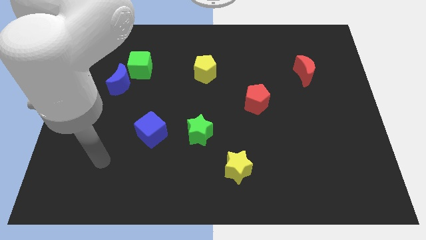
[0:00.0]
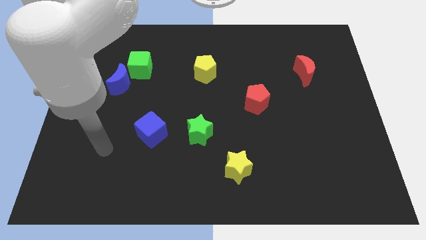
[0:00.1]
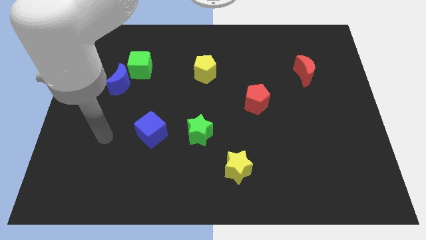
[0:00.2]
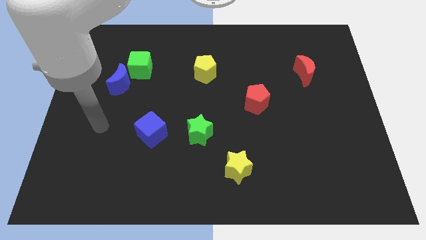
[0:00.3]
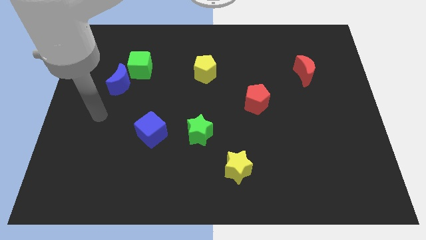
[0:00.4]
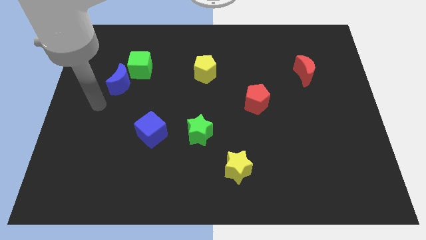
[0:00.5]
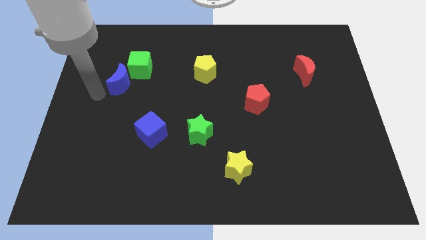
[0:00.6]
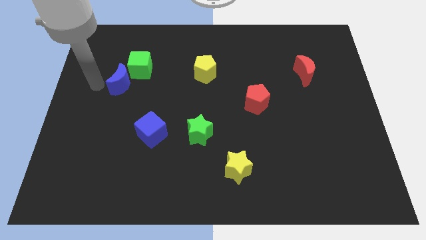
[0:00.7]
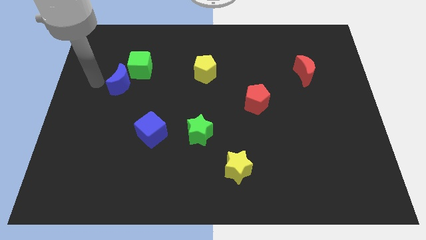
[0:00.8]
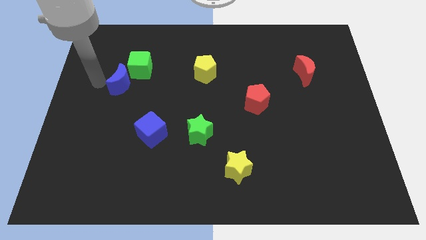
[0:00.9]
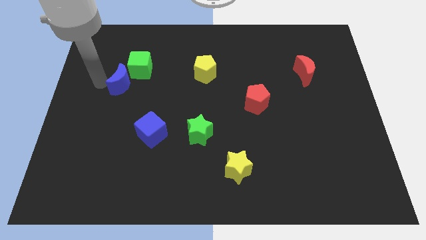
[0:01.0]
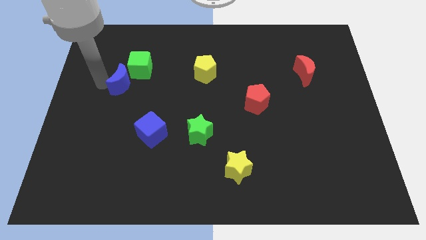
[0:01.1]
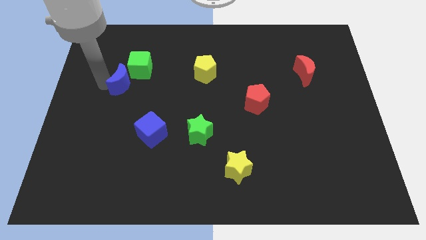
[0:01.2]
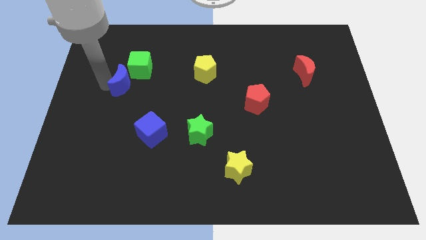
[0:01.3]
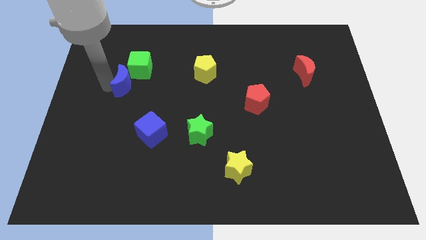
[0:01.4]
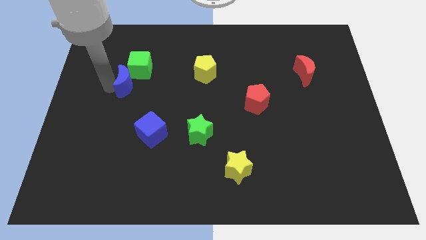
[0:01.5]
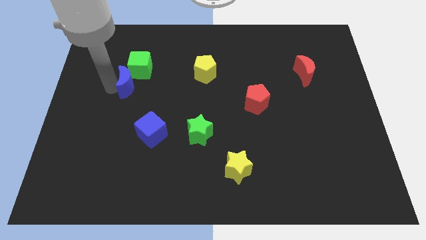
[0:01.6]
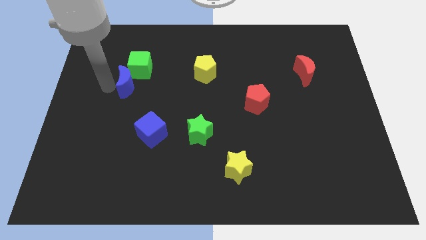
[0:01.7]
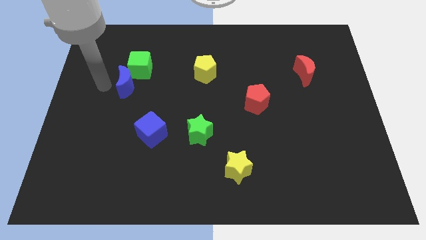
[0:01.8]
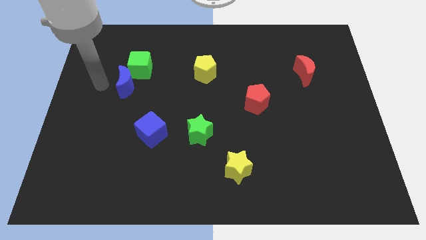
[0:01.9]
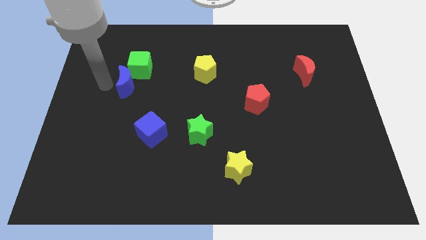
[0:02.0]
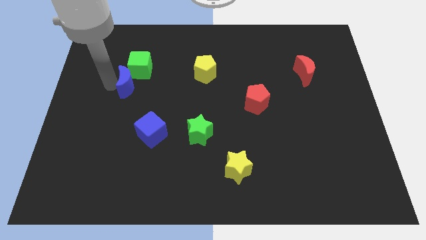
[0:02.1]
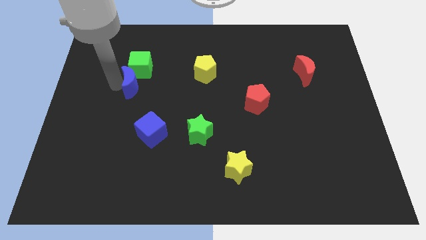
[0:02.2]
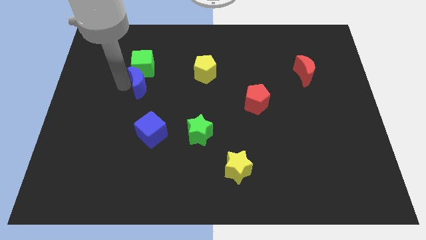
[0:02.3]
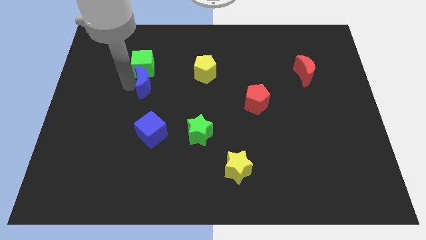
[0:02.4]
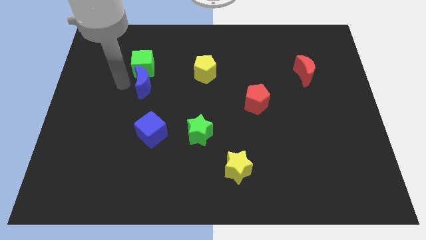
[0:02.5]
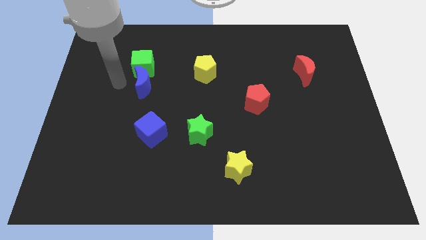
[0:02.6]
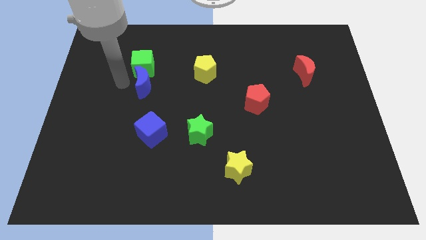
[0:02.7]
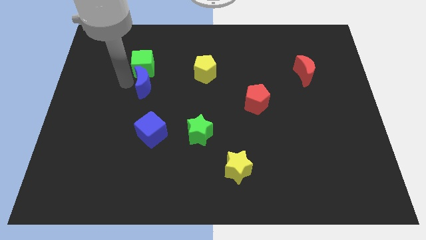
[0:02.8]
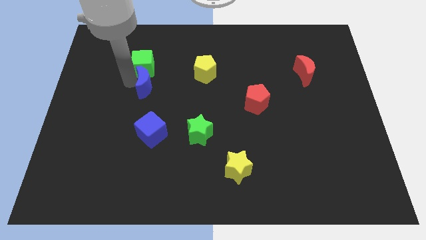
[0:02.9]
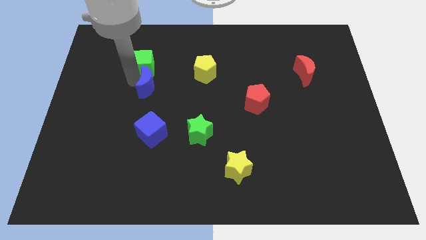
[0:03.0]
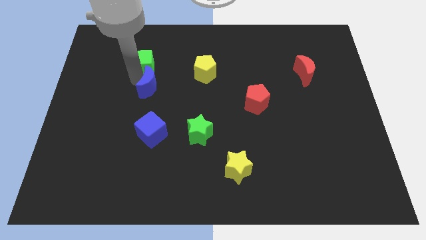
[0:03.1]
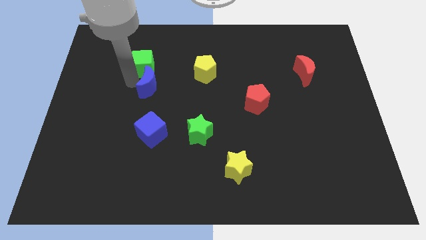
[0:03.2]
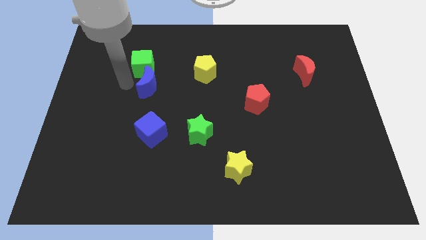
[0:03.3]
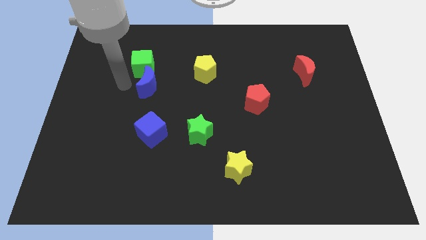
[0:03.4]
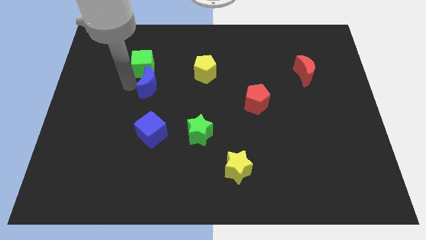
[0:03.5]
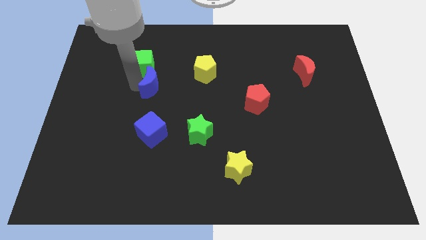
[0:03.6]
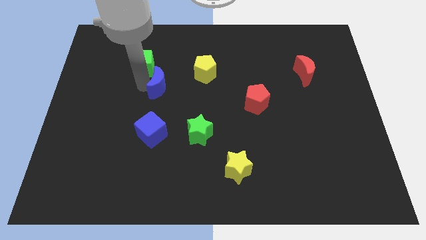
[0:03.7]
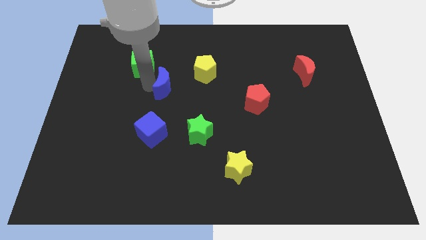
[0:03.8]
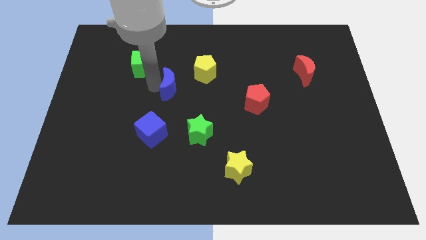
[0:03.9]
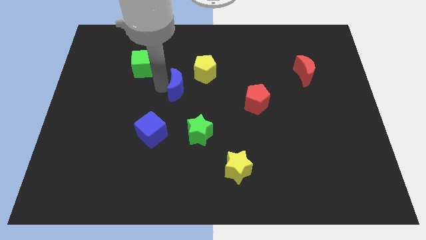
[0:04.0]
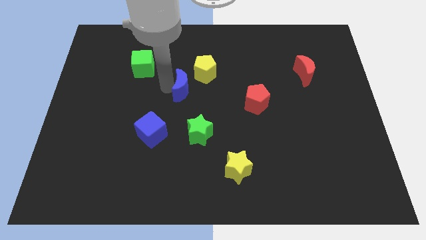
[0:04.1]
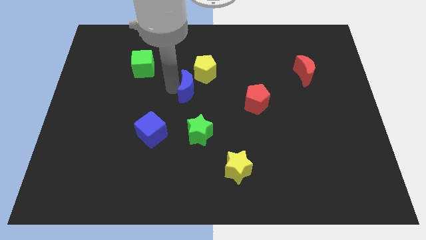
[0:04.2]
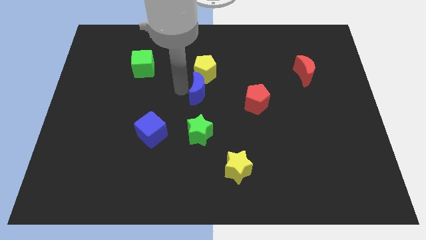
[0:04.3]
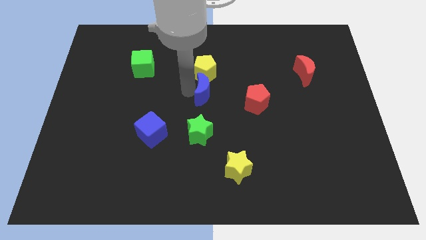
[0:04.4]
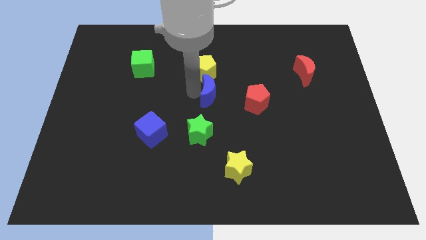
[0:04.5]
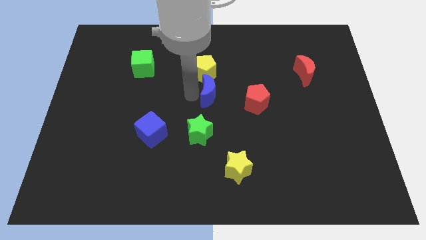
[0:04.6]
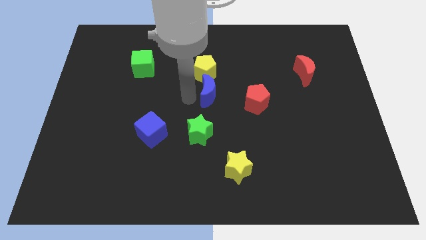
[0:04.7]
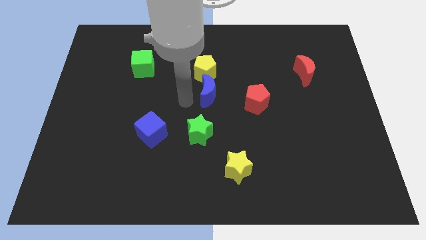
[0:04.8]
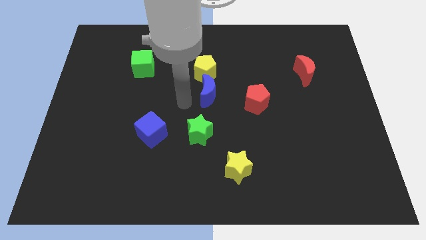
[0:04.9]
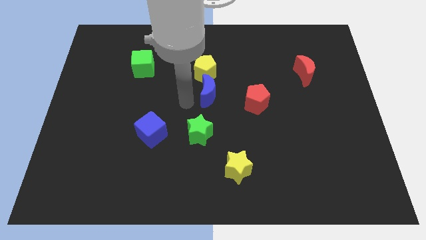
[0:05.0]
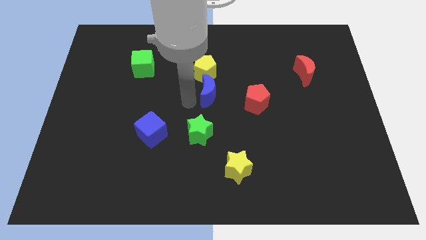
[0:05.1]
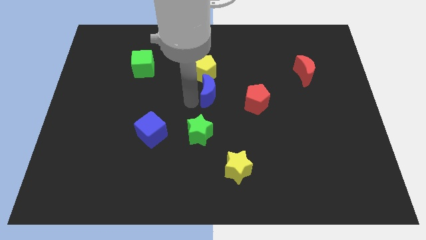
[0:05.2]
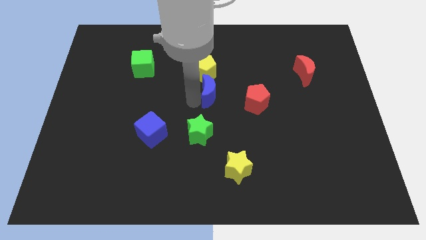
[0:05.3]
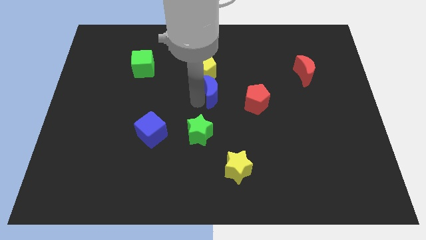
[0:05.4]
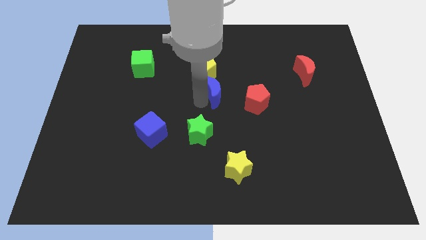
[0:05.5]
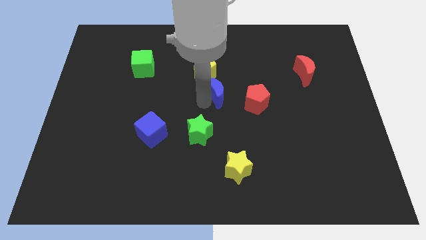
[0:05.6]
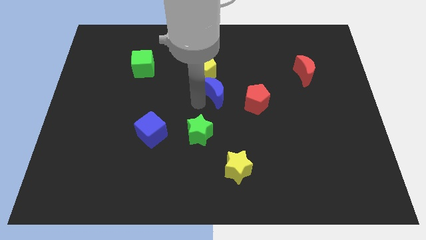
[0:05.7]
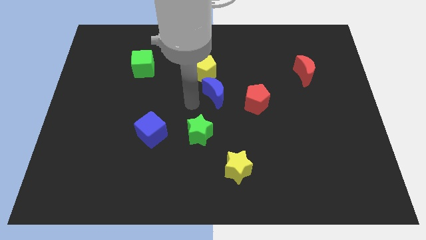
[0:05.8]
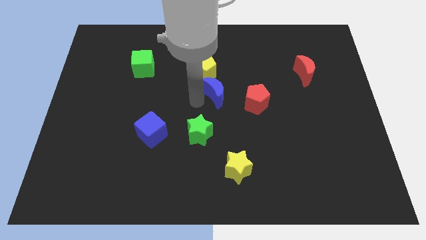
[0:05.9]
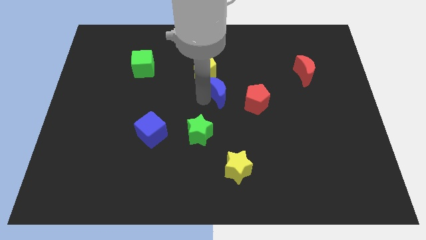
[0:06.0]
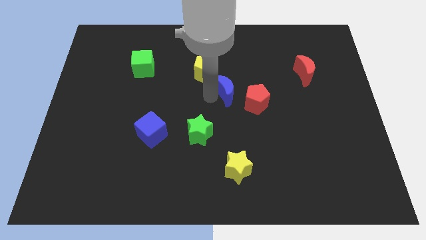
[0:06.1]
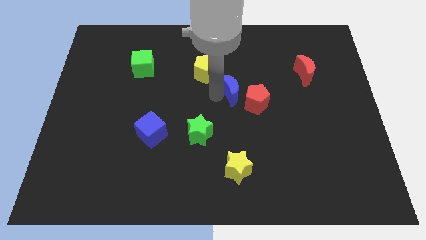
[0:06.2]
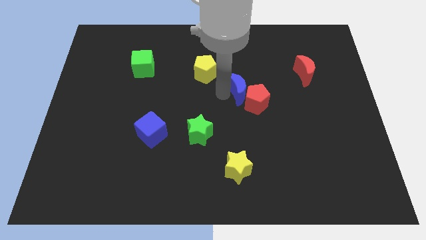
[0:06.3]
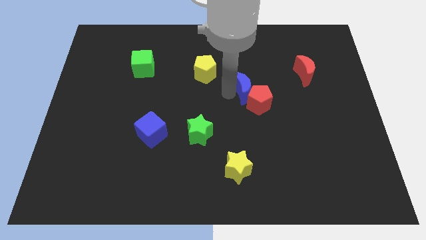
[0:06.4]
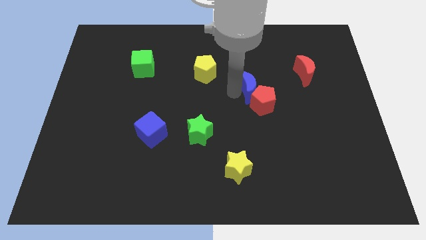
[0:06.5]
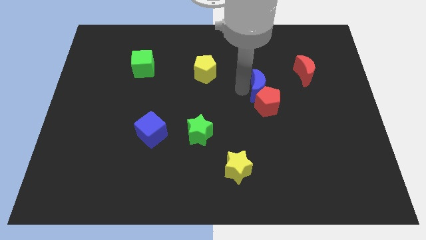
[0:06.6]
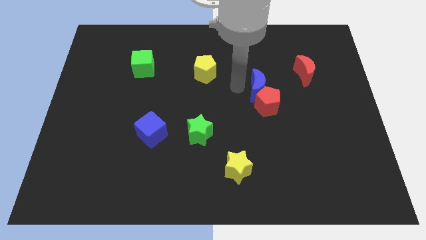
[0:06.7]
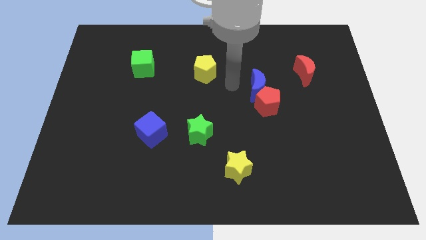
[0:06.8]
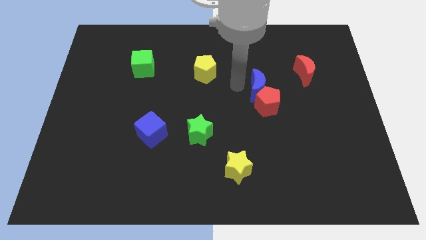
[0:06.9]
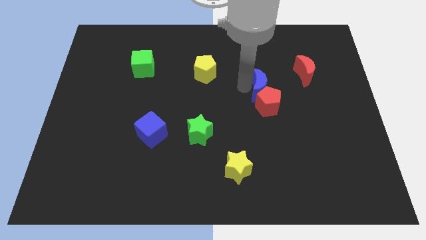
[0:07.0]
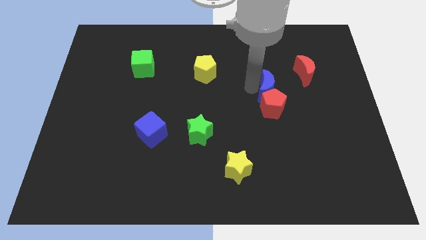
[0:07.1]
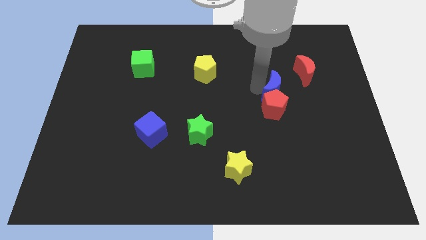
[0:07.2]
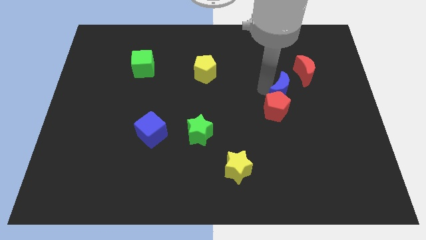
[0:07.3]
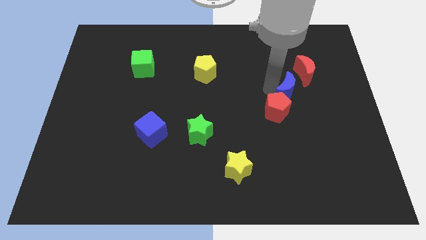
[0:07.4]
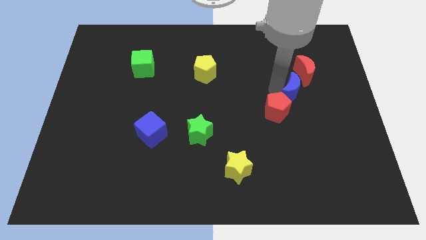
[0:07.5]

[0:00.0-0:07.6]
slide the blue moon below the red moon
